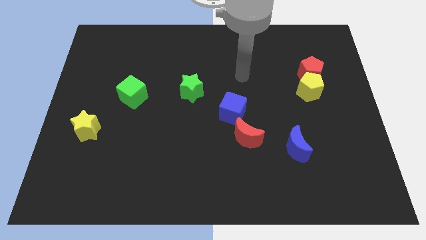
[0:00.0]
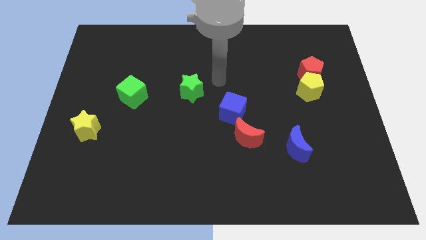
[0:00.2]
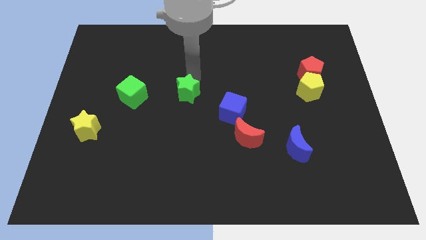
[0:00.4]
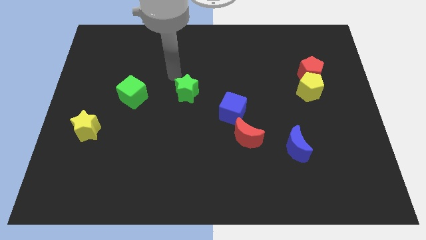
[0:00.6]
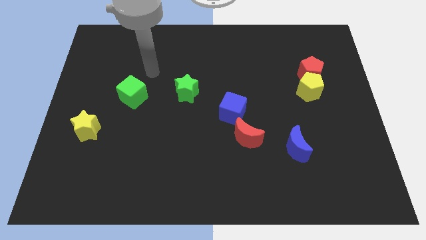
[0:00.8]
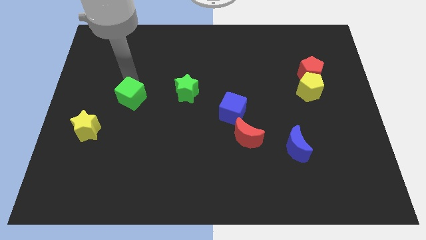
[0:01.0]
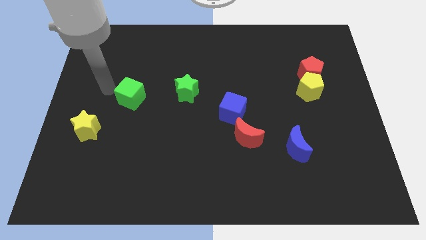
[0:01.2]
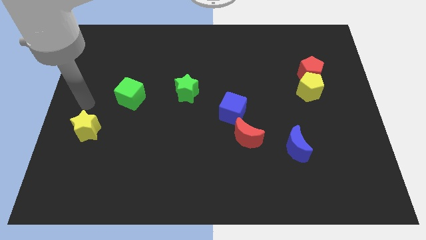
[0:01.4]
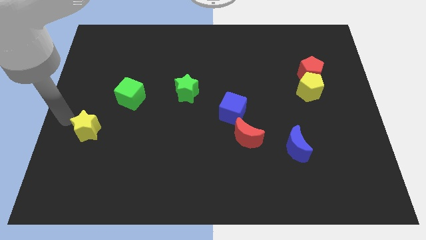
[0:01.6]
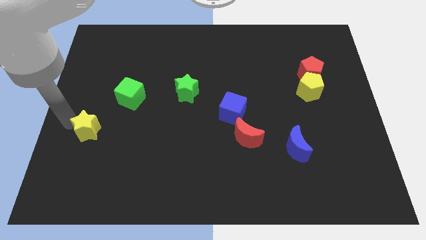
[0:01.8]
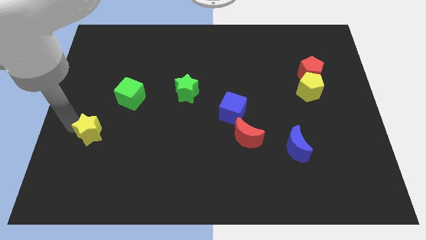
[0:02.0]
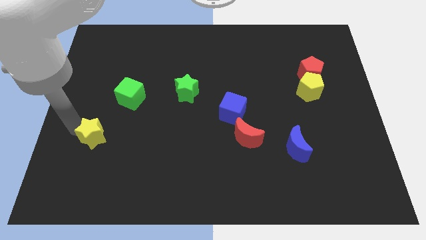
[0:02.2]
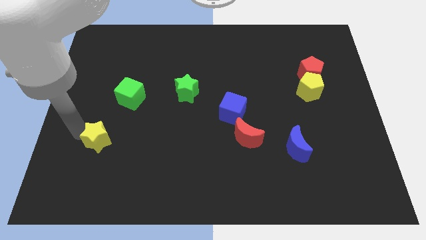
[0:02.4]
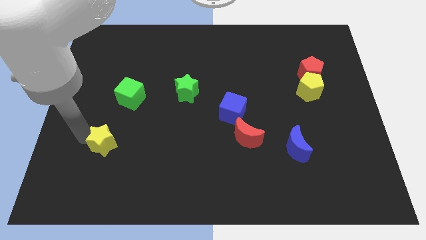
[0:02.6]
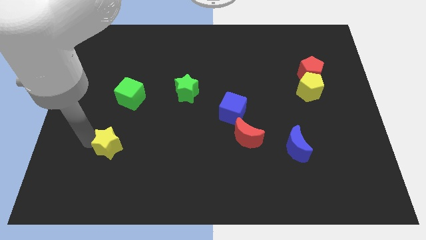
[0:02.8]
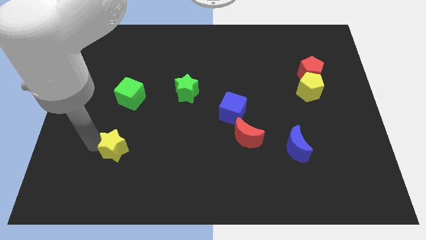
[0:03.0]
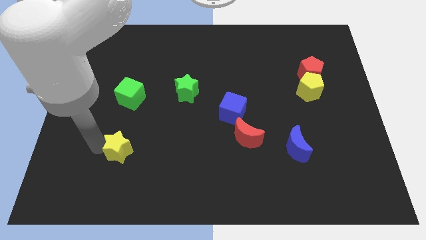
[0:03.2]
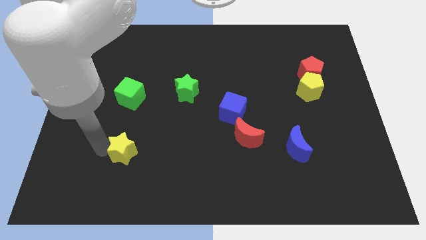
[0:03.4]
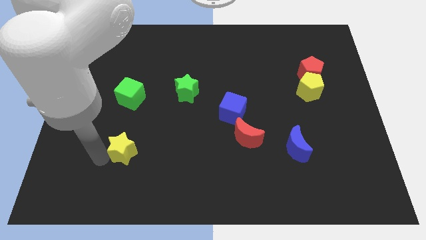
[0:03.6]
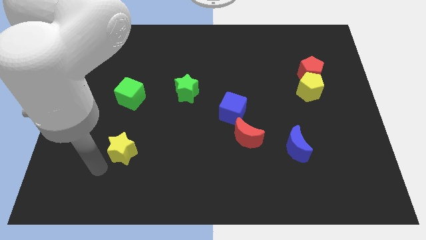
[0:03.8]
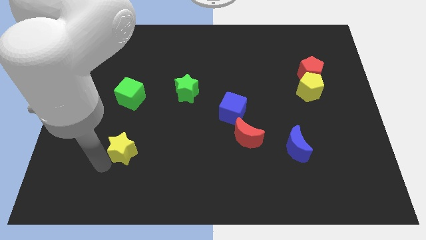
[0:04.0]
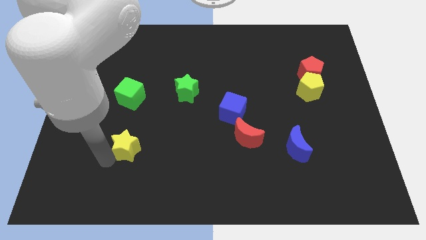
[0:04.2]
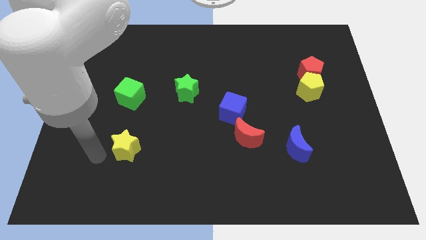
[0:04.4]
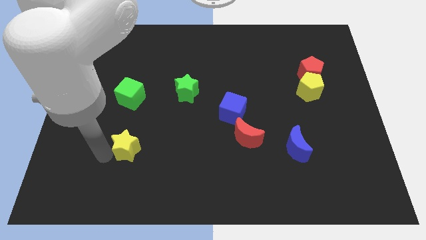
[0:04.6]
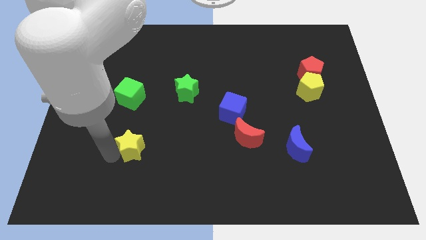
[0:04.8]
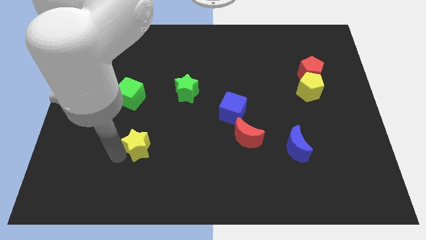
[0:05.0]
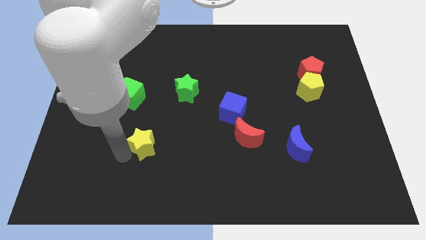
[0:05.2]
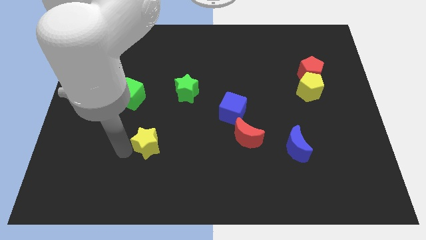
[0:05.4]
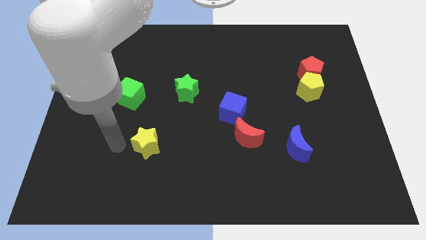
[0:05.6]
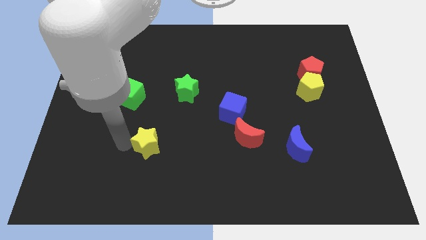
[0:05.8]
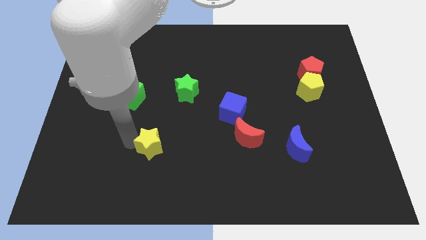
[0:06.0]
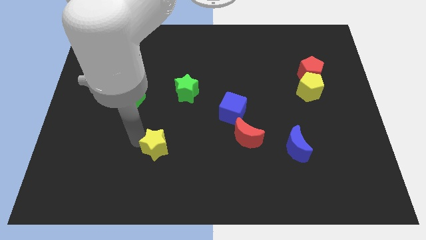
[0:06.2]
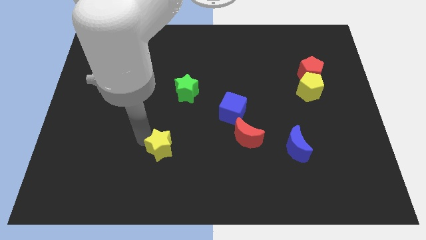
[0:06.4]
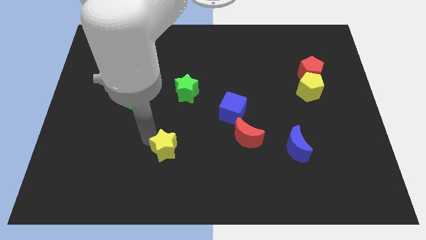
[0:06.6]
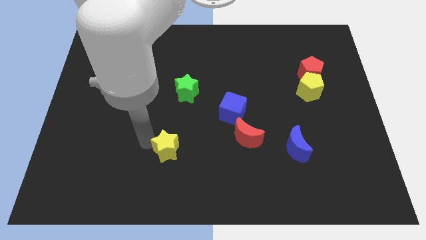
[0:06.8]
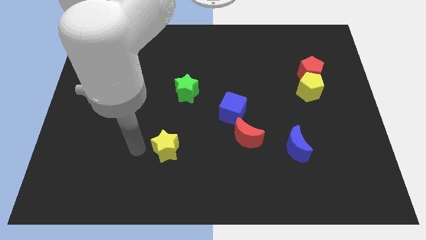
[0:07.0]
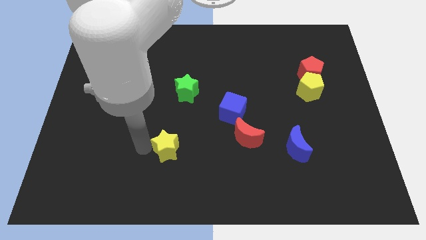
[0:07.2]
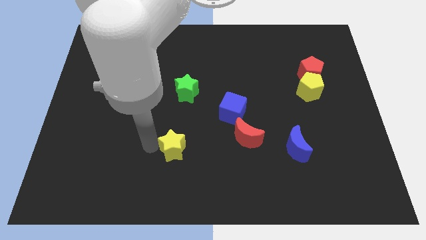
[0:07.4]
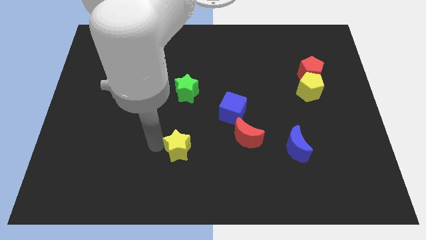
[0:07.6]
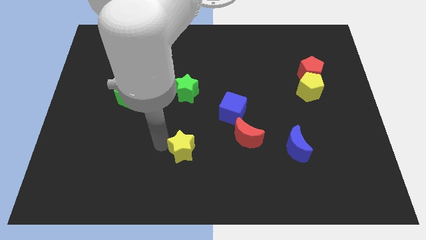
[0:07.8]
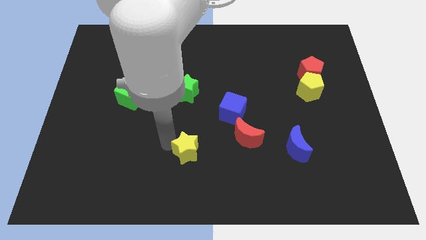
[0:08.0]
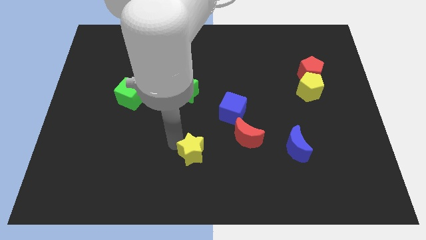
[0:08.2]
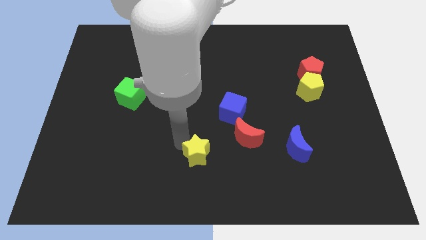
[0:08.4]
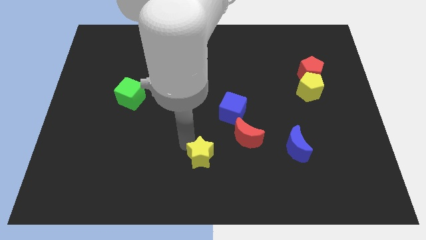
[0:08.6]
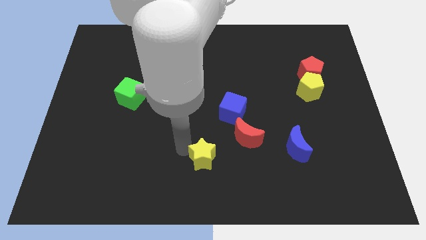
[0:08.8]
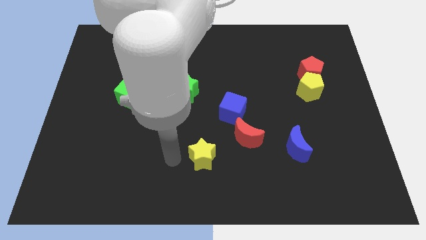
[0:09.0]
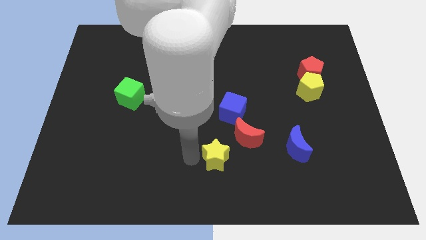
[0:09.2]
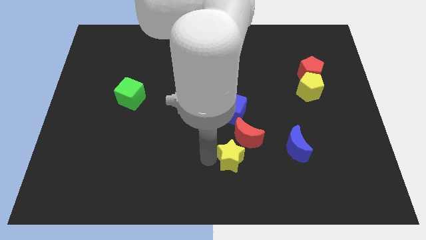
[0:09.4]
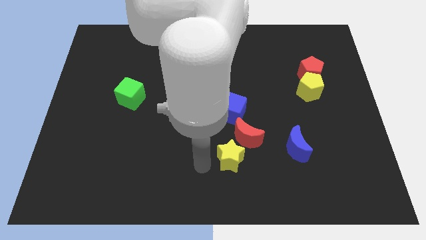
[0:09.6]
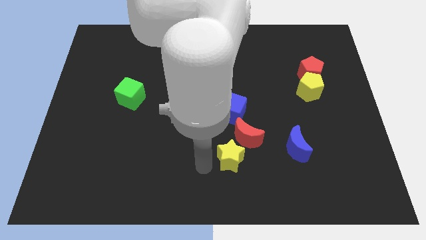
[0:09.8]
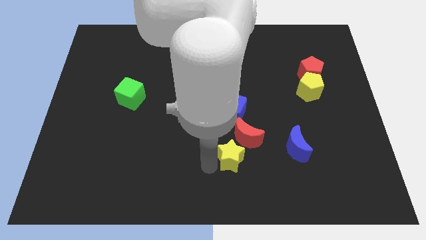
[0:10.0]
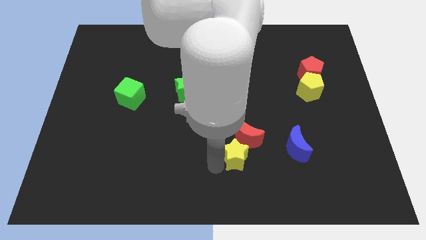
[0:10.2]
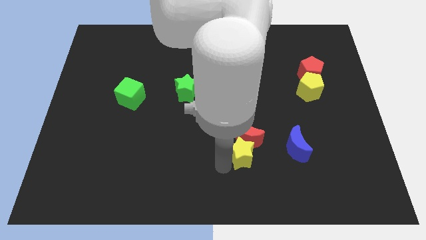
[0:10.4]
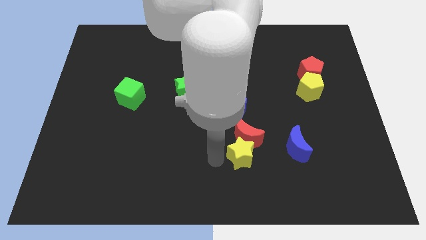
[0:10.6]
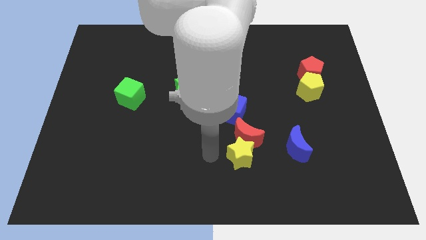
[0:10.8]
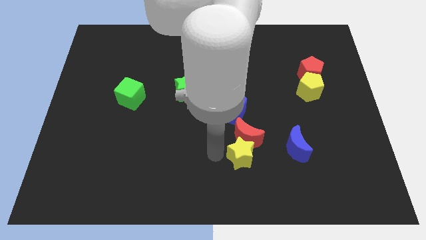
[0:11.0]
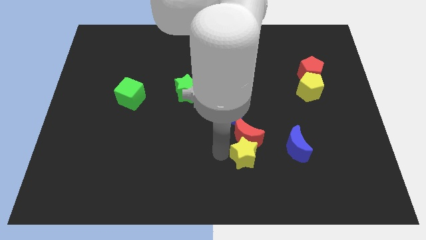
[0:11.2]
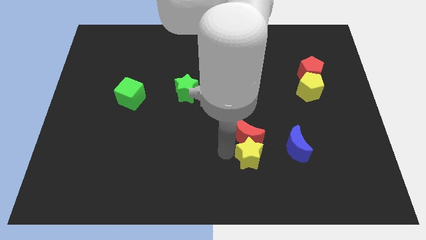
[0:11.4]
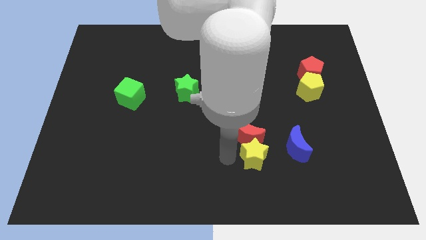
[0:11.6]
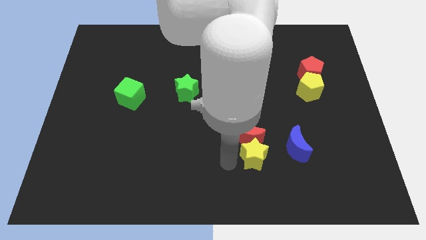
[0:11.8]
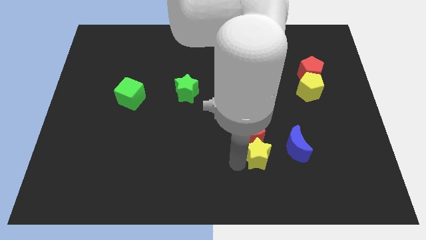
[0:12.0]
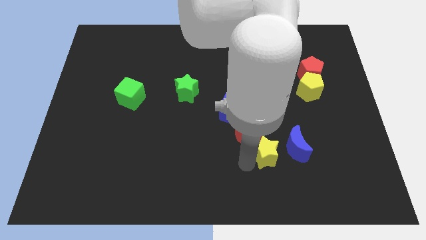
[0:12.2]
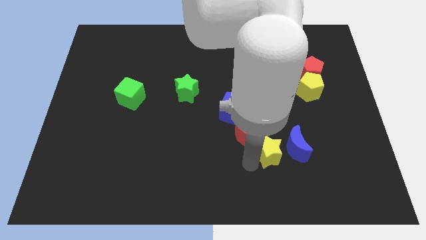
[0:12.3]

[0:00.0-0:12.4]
put the yellow star next to the blue moon

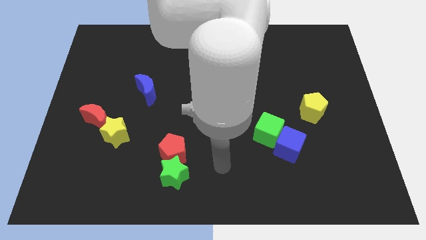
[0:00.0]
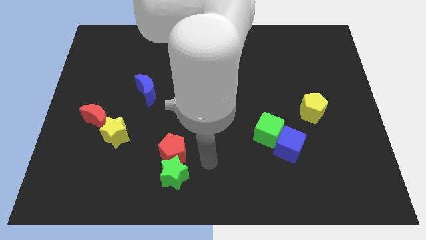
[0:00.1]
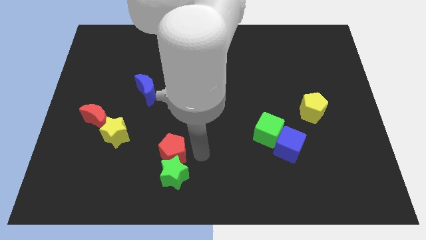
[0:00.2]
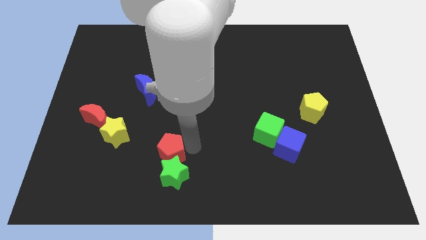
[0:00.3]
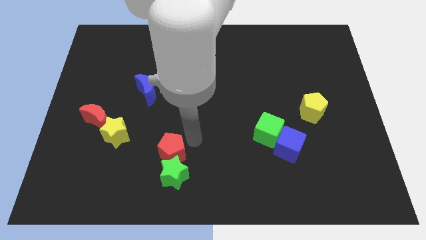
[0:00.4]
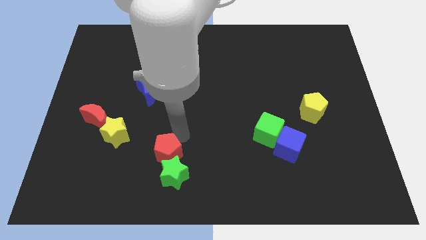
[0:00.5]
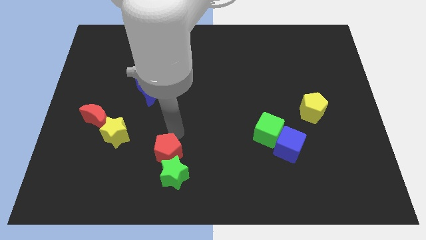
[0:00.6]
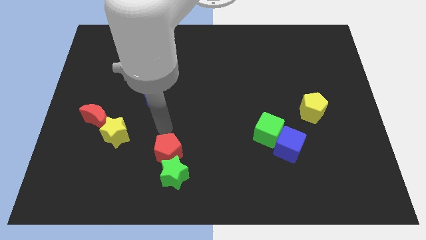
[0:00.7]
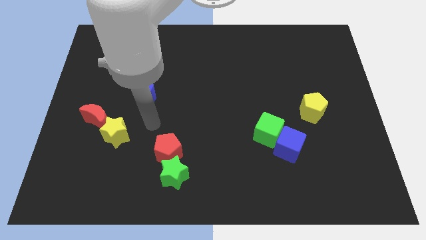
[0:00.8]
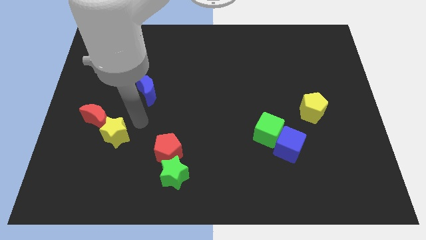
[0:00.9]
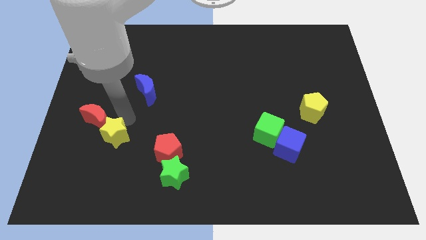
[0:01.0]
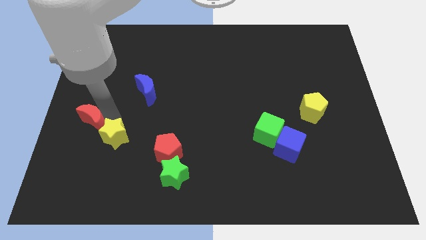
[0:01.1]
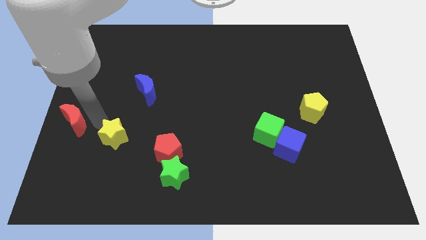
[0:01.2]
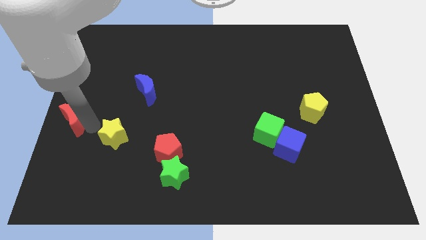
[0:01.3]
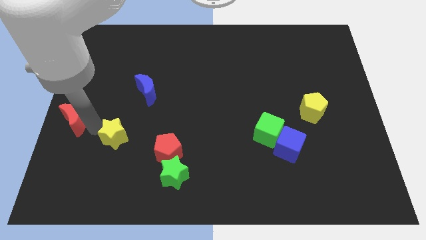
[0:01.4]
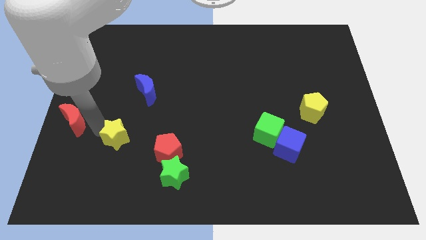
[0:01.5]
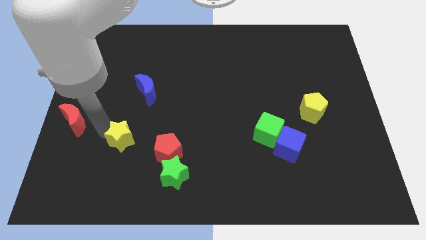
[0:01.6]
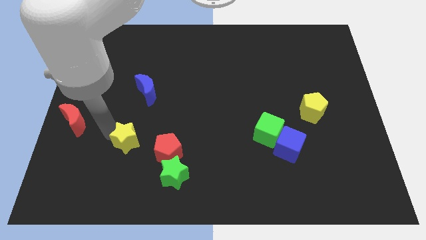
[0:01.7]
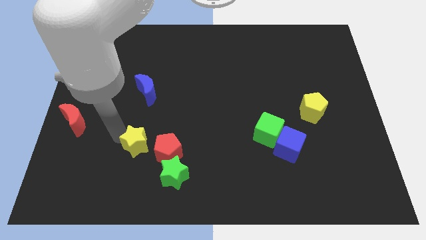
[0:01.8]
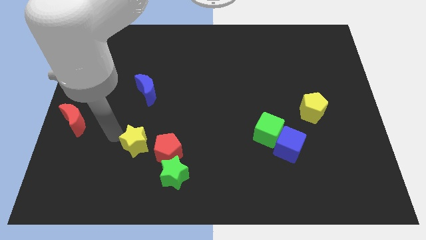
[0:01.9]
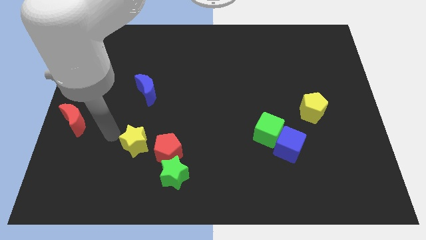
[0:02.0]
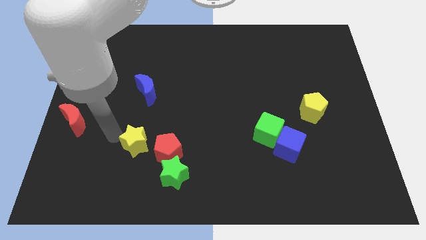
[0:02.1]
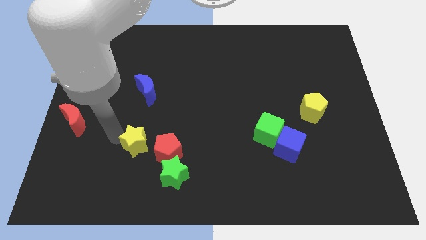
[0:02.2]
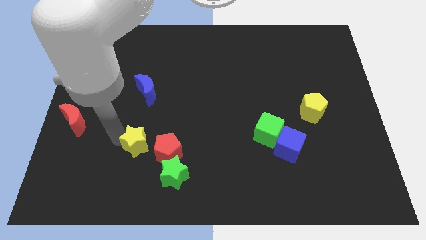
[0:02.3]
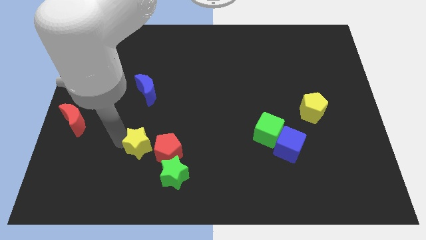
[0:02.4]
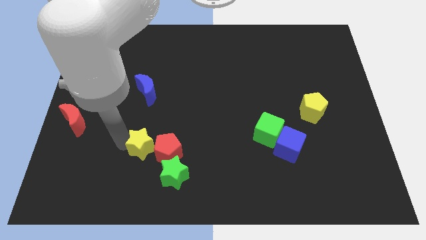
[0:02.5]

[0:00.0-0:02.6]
slide the yellow star to the red pentagon
